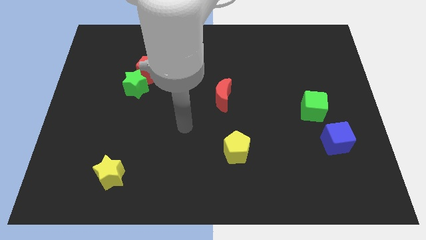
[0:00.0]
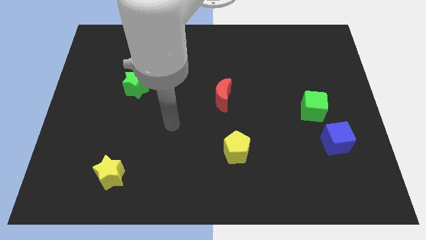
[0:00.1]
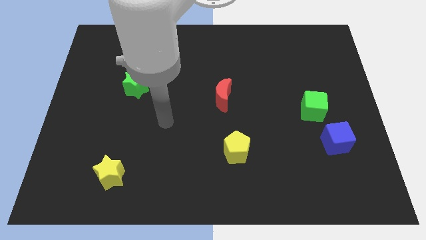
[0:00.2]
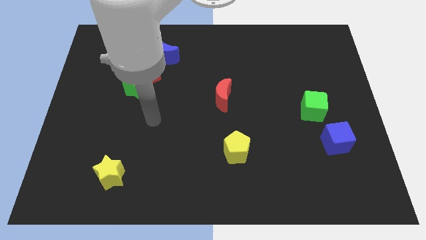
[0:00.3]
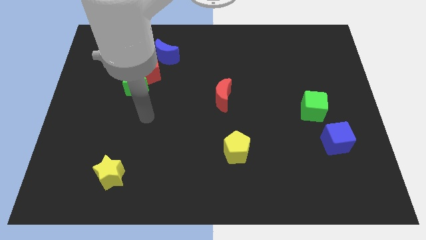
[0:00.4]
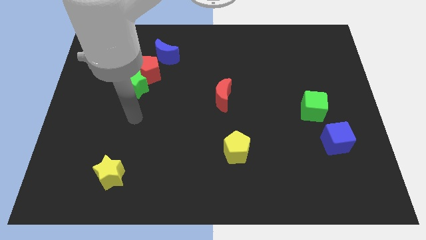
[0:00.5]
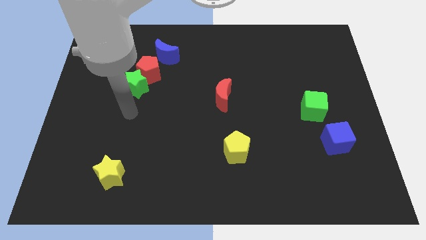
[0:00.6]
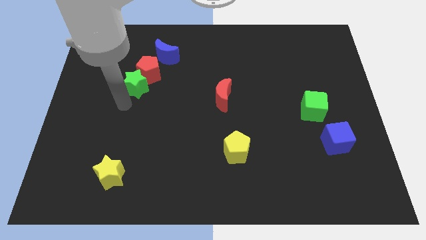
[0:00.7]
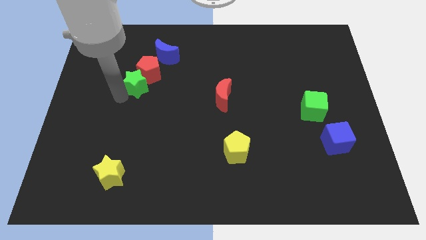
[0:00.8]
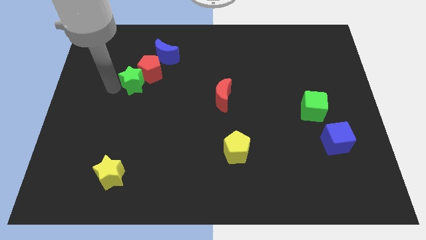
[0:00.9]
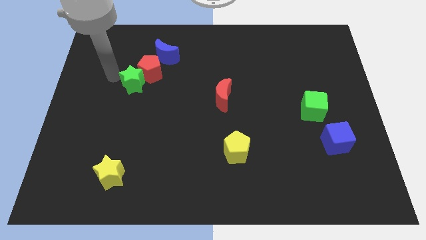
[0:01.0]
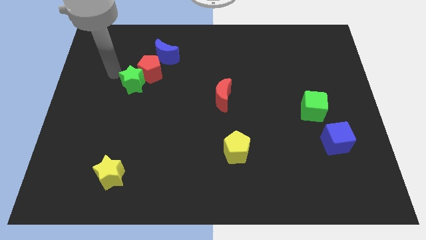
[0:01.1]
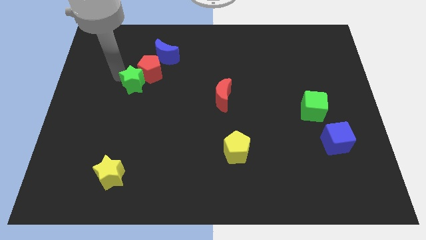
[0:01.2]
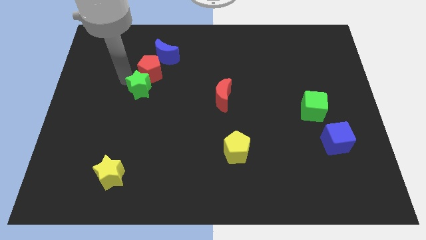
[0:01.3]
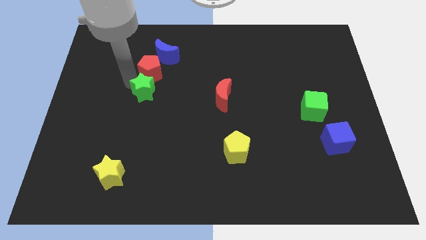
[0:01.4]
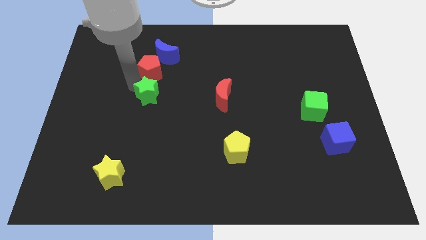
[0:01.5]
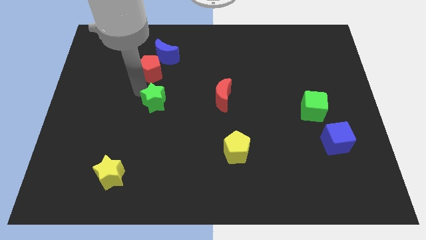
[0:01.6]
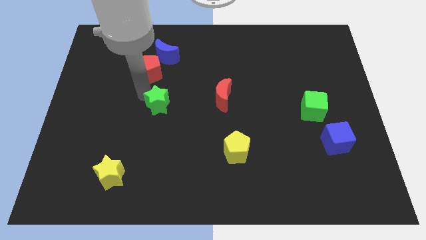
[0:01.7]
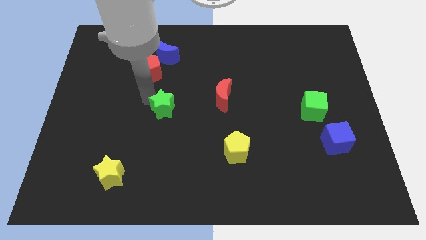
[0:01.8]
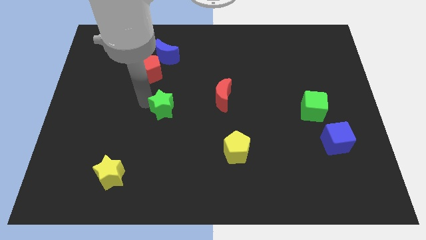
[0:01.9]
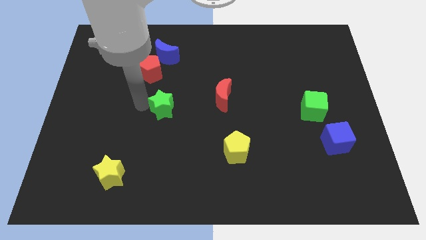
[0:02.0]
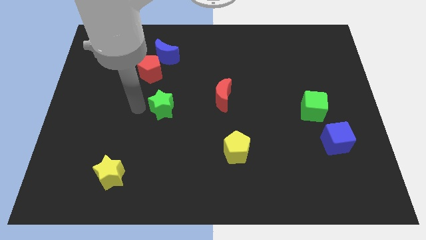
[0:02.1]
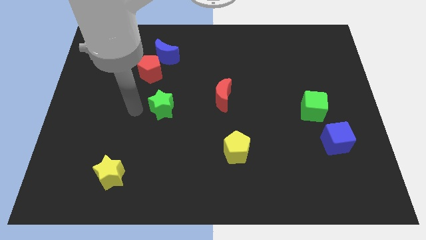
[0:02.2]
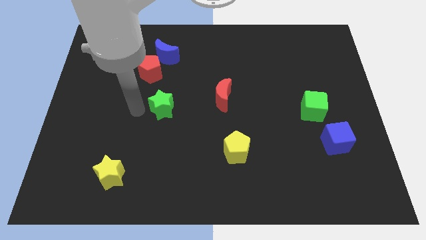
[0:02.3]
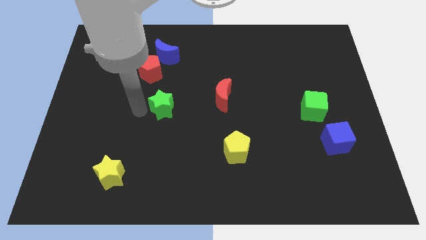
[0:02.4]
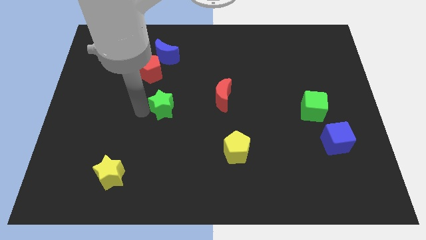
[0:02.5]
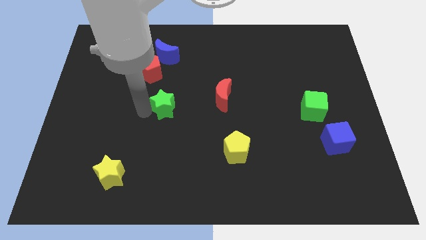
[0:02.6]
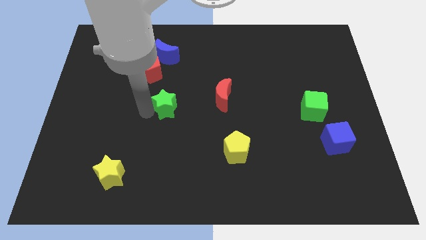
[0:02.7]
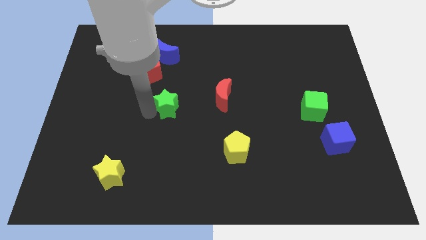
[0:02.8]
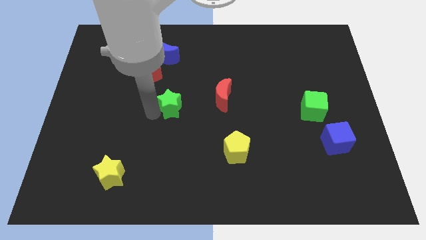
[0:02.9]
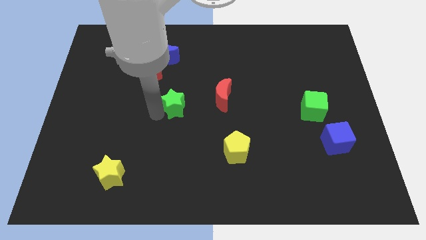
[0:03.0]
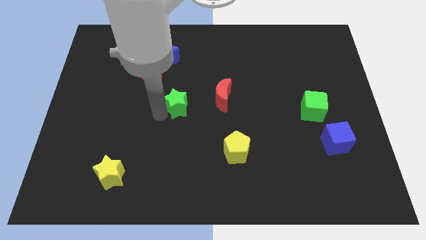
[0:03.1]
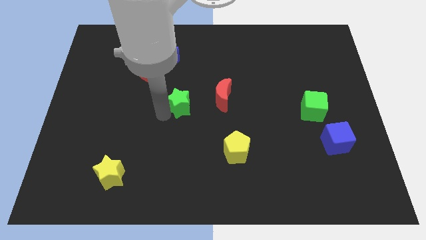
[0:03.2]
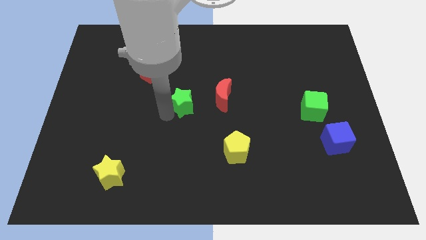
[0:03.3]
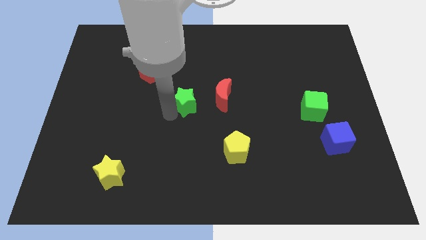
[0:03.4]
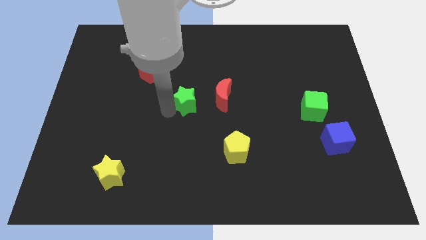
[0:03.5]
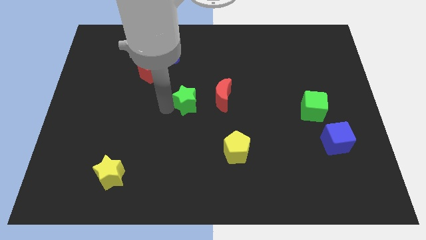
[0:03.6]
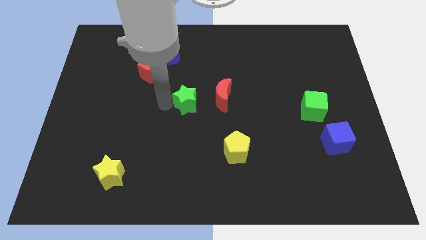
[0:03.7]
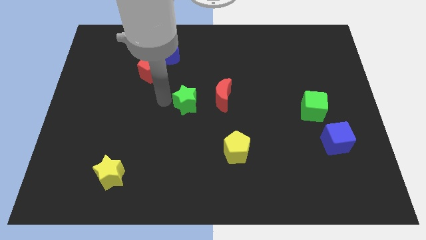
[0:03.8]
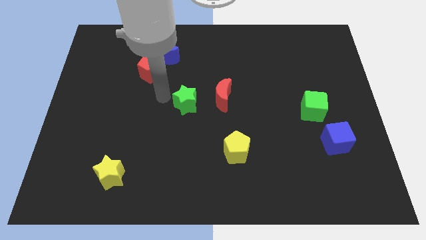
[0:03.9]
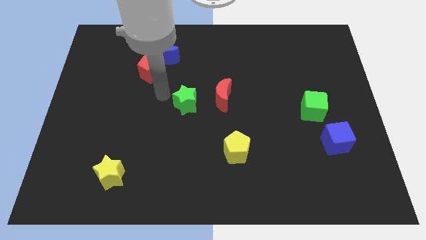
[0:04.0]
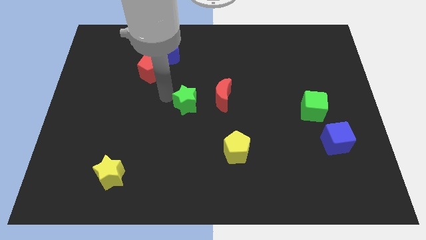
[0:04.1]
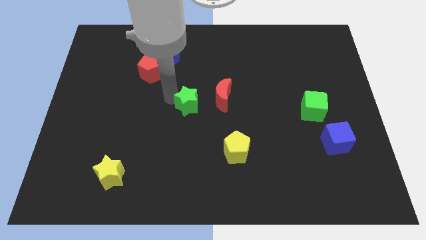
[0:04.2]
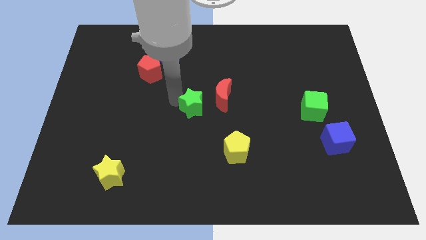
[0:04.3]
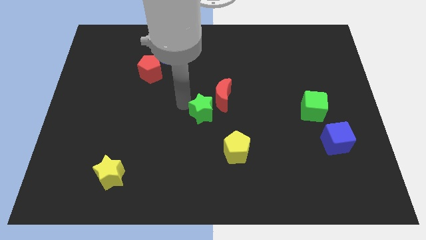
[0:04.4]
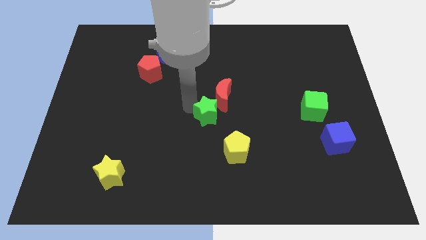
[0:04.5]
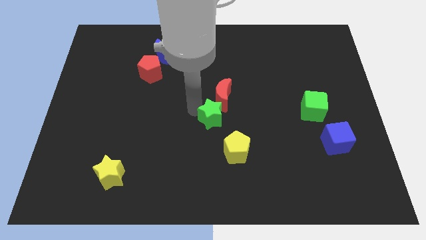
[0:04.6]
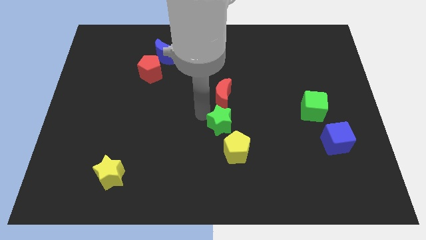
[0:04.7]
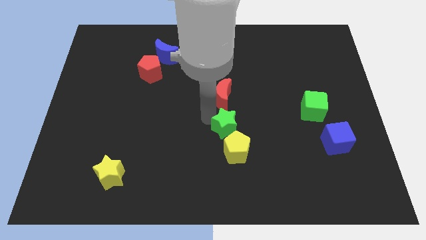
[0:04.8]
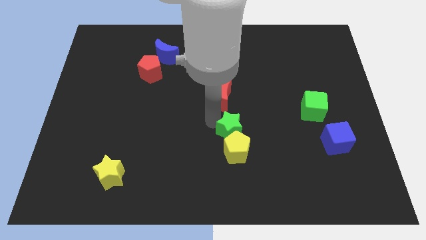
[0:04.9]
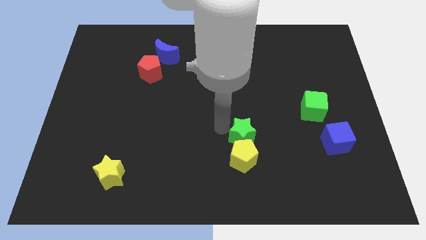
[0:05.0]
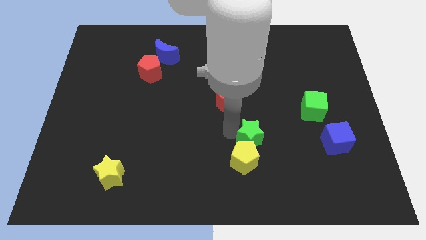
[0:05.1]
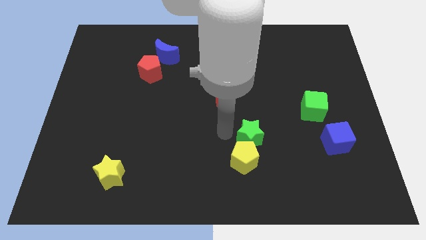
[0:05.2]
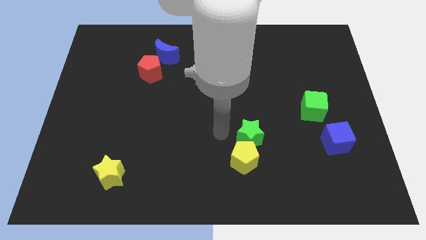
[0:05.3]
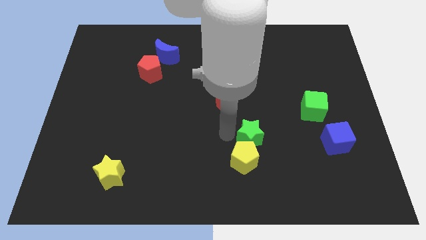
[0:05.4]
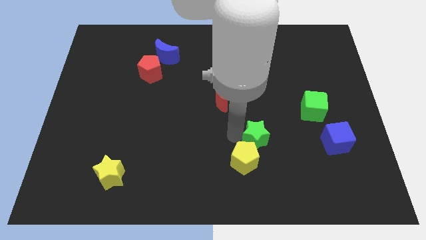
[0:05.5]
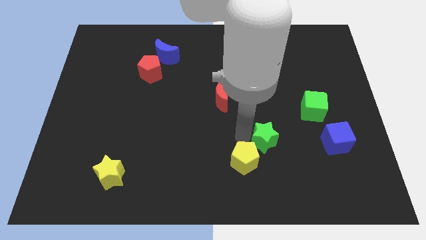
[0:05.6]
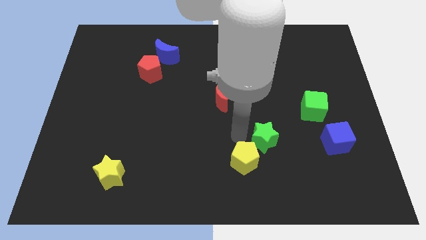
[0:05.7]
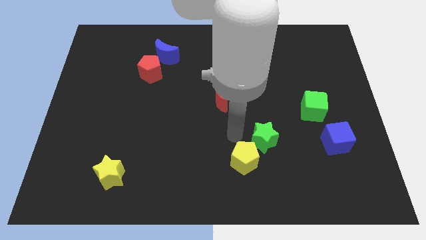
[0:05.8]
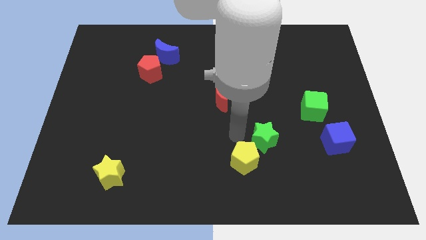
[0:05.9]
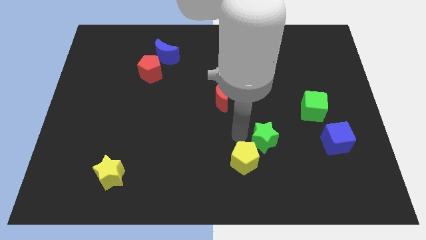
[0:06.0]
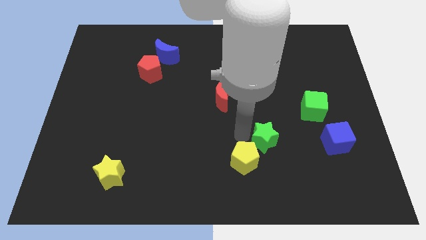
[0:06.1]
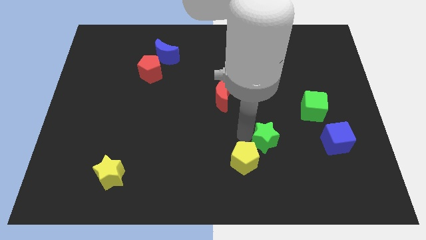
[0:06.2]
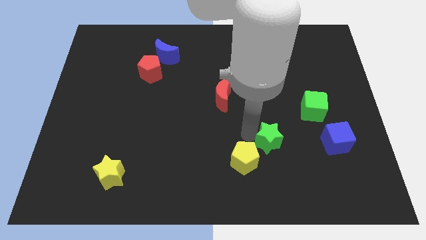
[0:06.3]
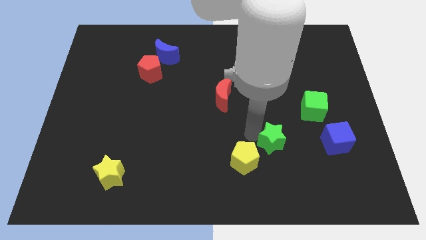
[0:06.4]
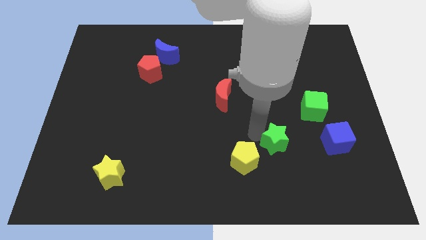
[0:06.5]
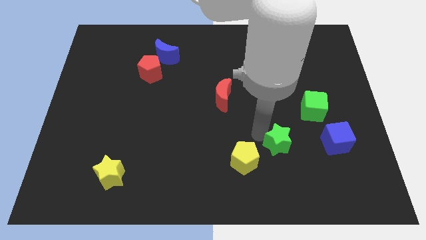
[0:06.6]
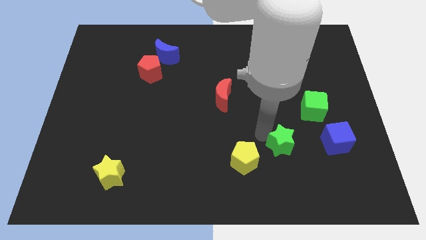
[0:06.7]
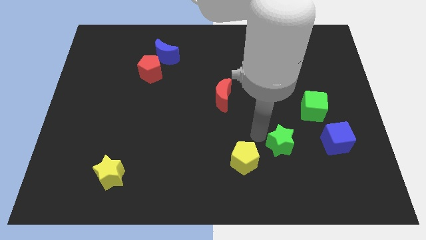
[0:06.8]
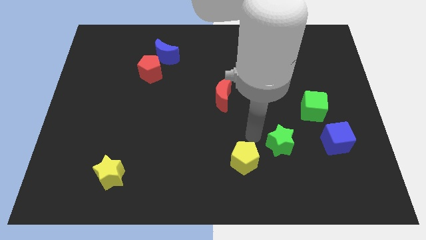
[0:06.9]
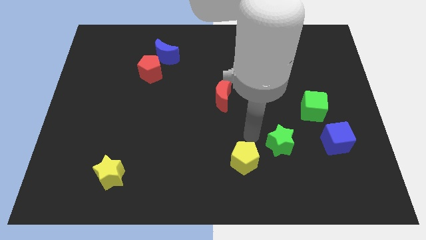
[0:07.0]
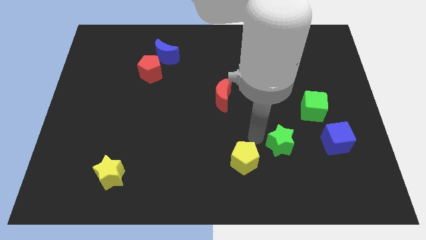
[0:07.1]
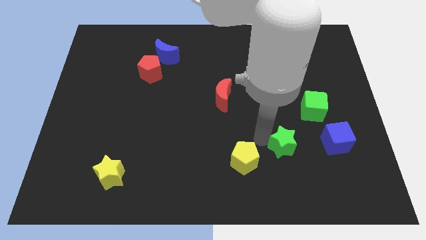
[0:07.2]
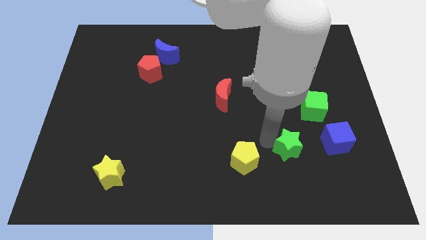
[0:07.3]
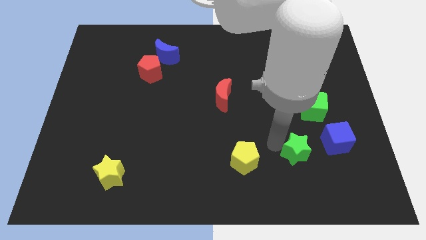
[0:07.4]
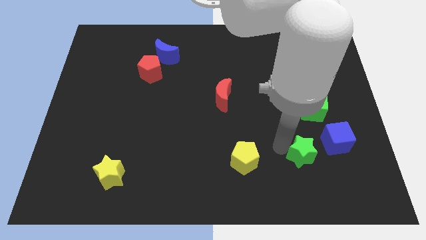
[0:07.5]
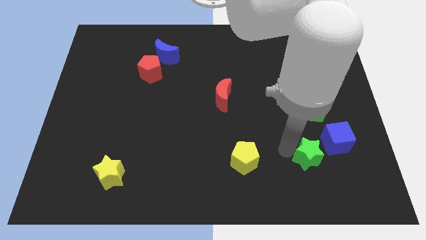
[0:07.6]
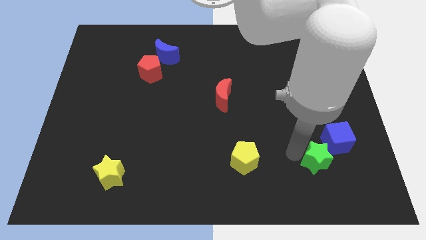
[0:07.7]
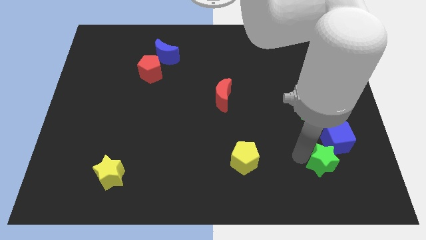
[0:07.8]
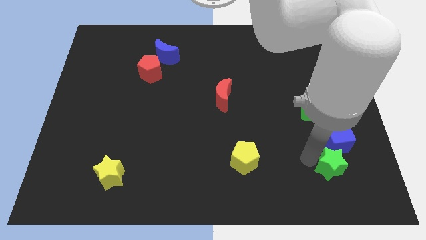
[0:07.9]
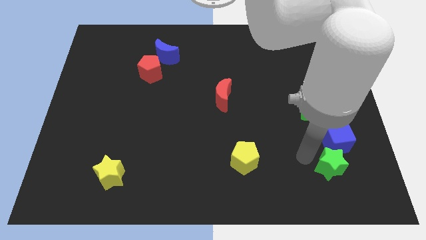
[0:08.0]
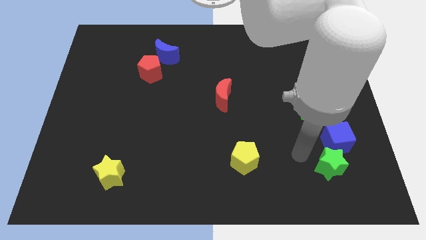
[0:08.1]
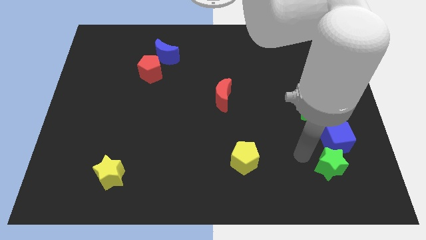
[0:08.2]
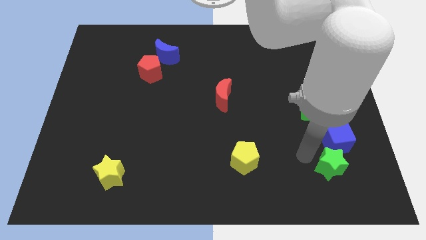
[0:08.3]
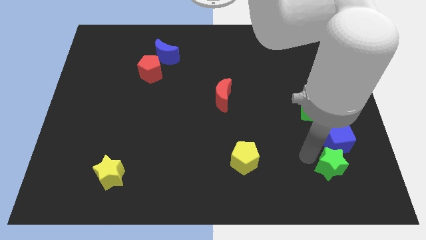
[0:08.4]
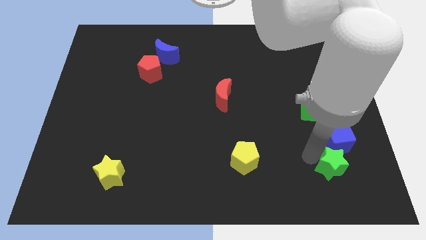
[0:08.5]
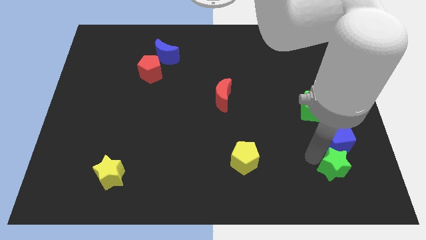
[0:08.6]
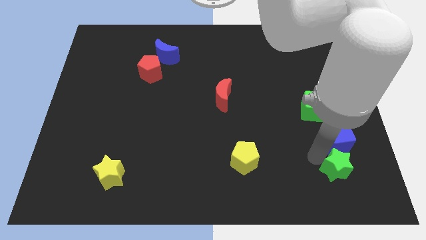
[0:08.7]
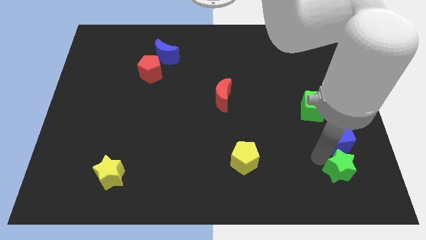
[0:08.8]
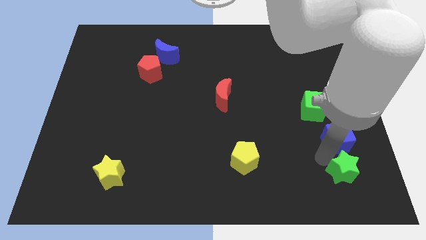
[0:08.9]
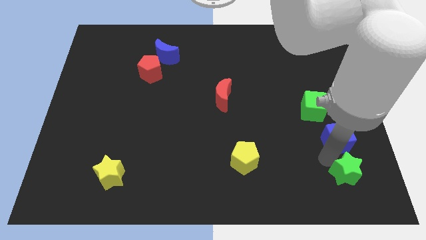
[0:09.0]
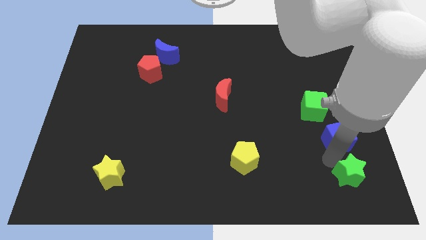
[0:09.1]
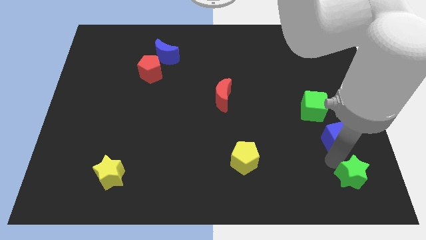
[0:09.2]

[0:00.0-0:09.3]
move the green star to the bottom right of the board
